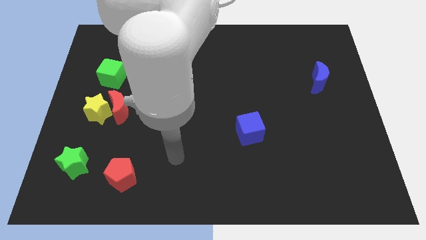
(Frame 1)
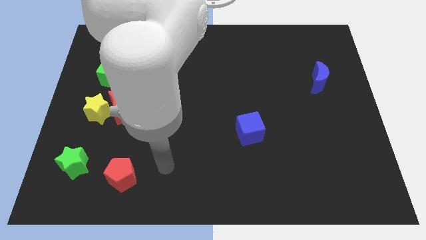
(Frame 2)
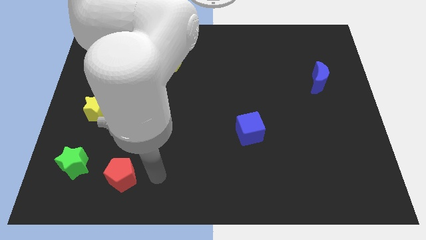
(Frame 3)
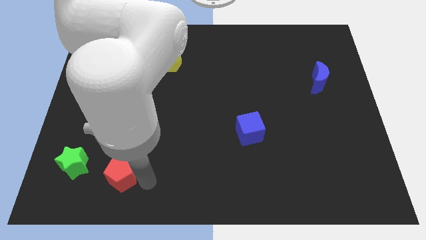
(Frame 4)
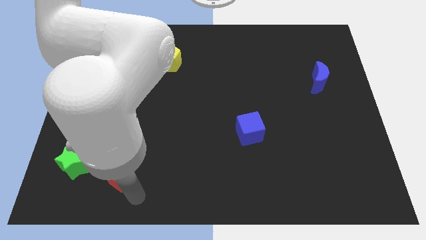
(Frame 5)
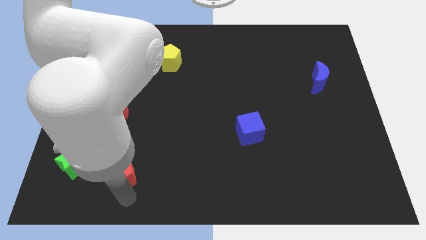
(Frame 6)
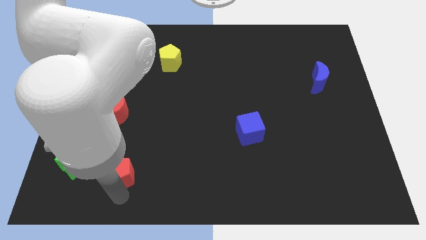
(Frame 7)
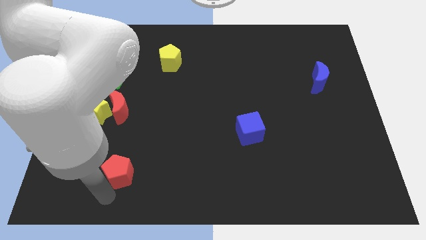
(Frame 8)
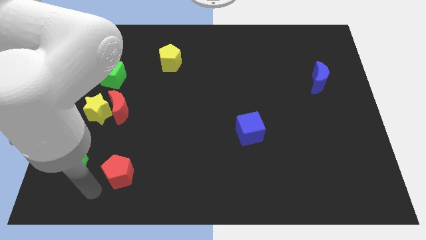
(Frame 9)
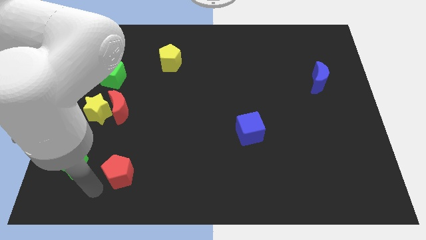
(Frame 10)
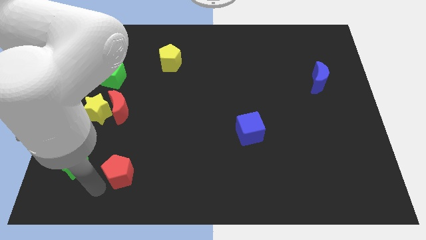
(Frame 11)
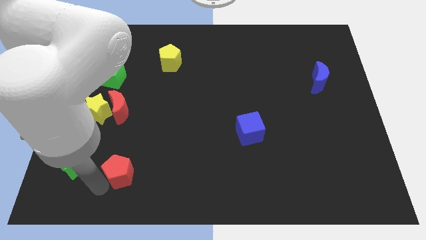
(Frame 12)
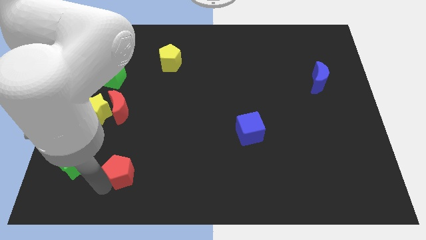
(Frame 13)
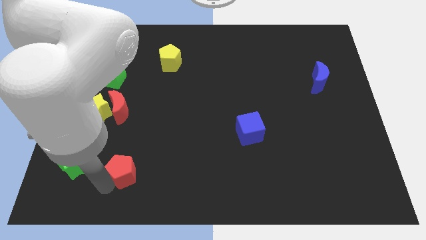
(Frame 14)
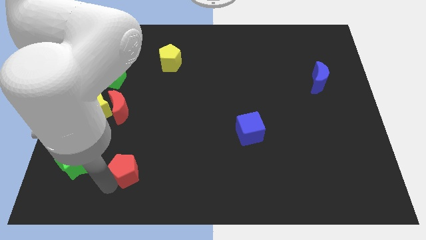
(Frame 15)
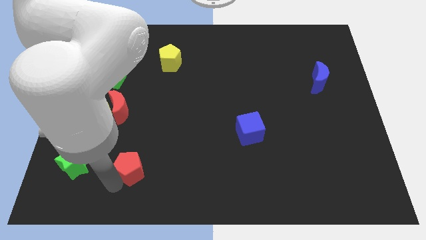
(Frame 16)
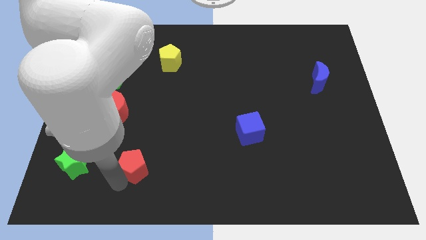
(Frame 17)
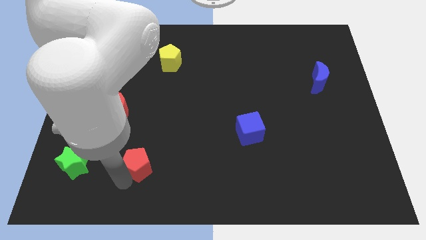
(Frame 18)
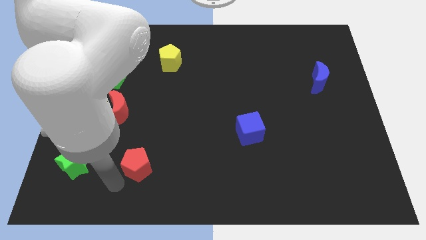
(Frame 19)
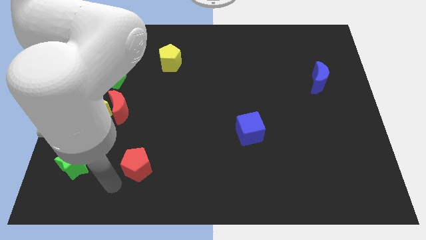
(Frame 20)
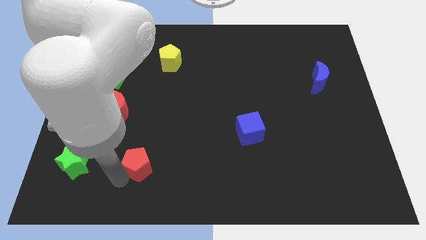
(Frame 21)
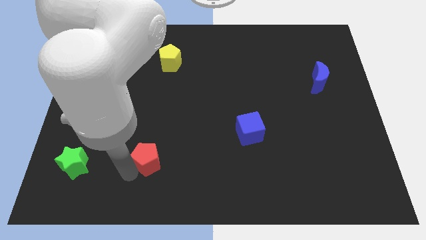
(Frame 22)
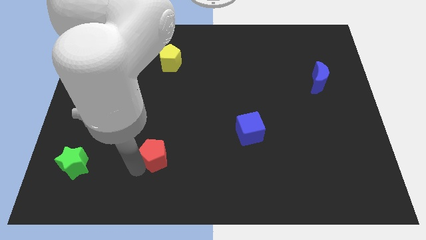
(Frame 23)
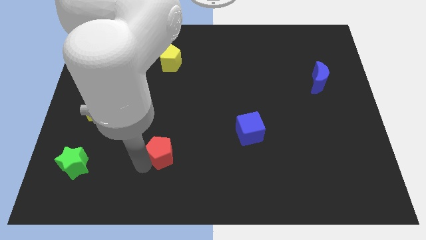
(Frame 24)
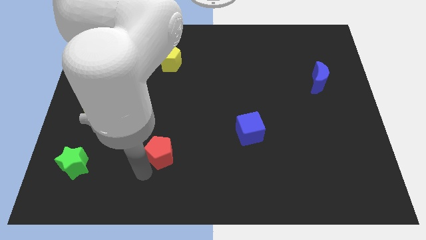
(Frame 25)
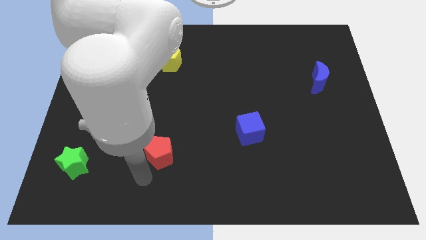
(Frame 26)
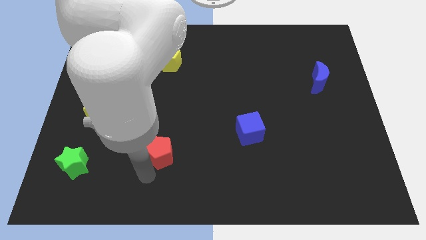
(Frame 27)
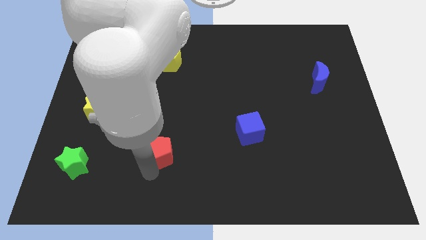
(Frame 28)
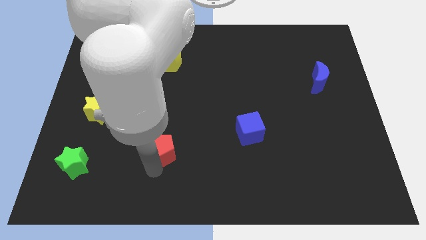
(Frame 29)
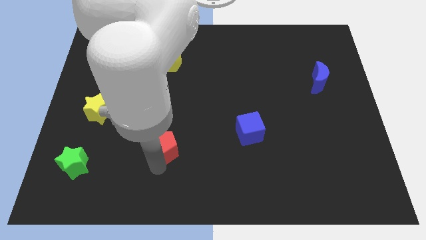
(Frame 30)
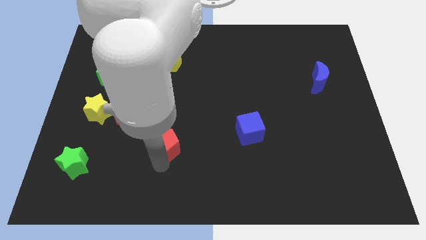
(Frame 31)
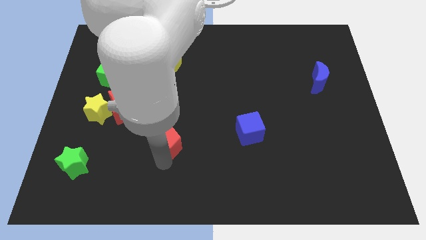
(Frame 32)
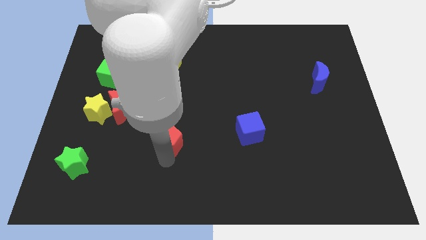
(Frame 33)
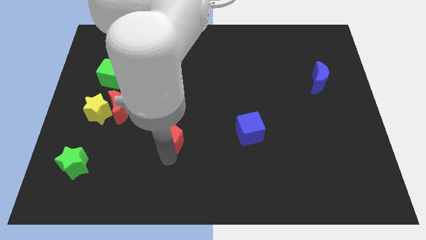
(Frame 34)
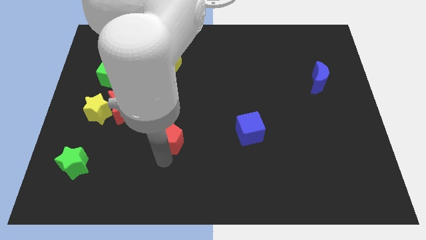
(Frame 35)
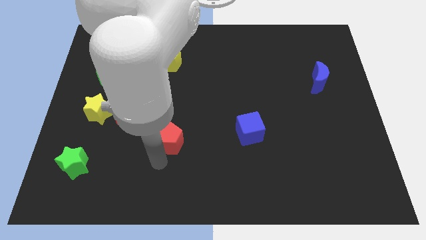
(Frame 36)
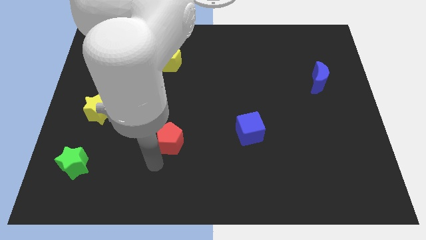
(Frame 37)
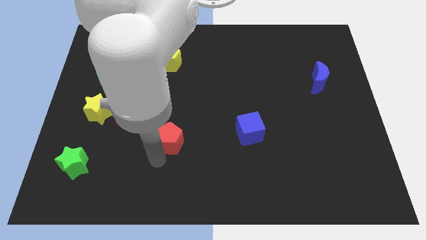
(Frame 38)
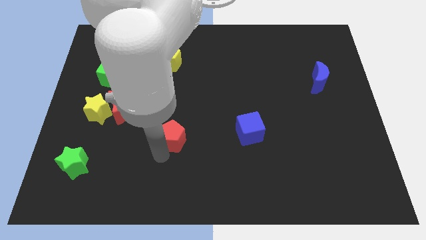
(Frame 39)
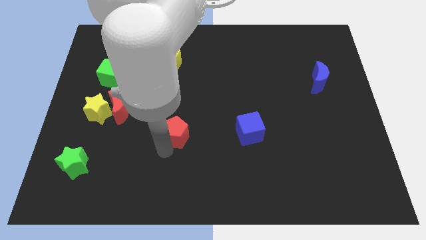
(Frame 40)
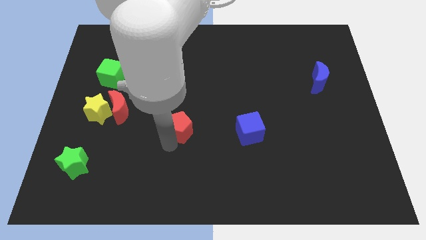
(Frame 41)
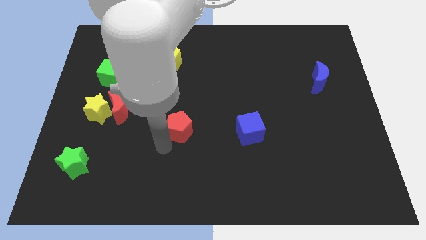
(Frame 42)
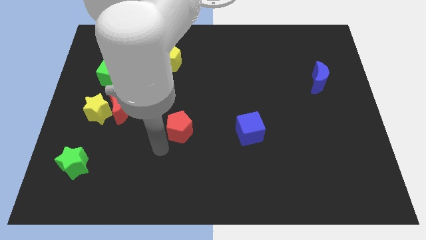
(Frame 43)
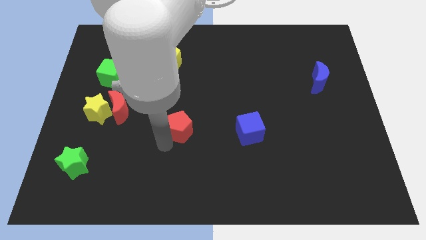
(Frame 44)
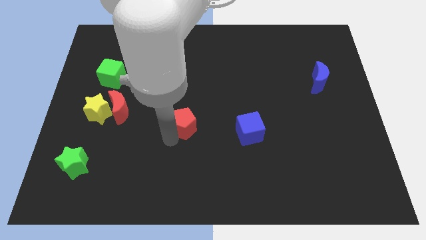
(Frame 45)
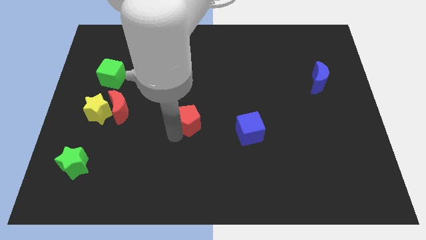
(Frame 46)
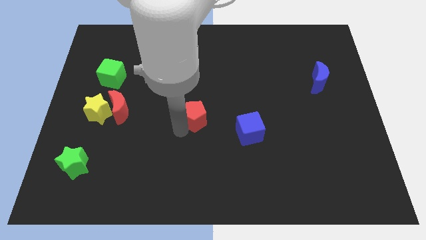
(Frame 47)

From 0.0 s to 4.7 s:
slide the red pentagon upwards and right diagonally

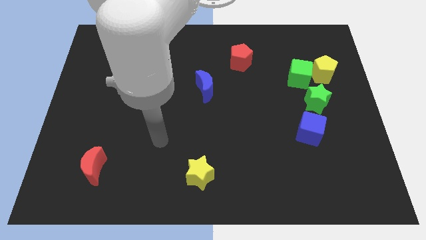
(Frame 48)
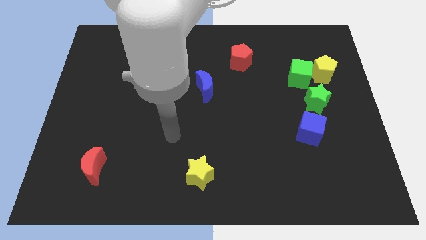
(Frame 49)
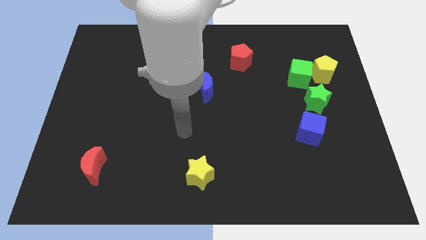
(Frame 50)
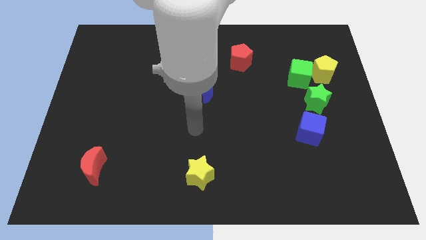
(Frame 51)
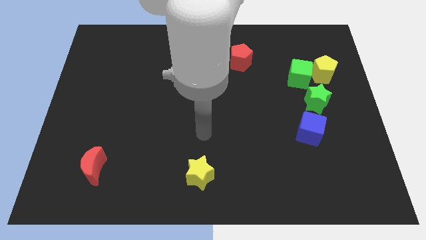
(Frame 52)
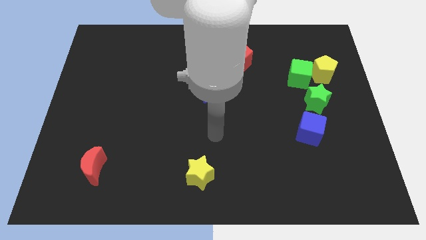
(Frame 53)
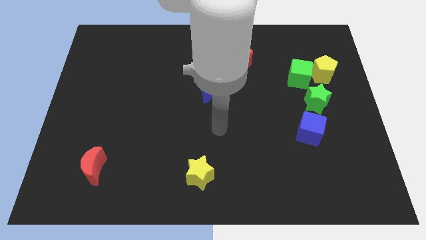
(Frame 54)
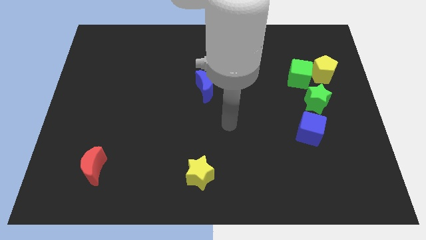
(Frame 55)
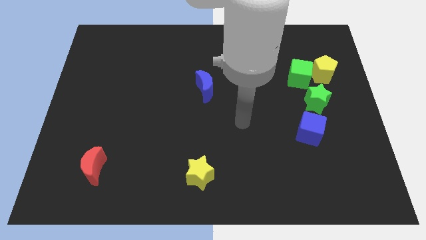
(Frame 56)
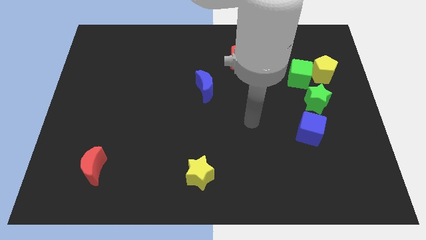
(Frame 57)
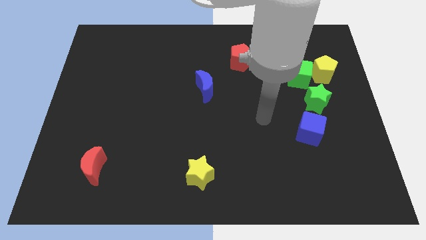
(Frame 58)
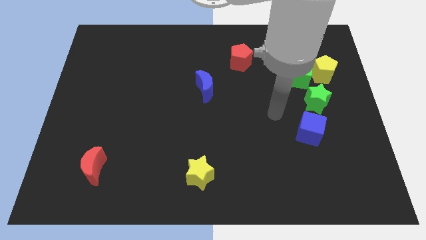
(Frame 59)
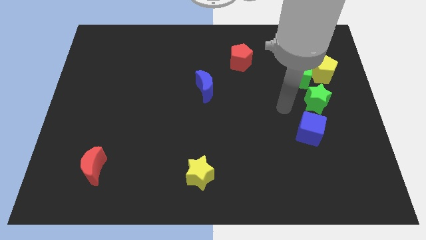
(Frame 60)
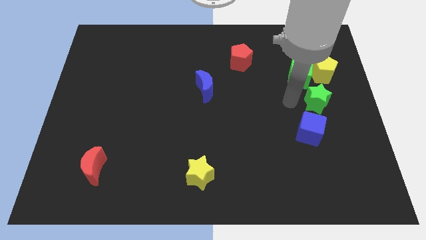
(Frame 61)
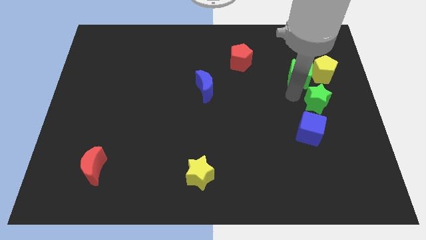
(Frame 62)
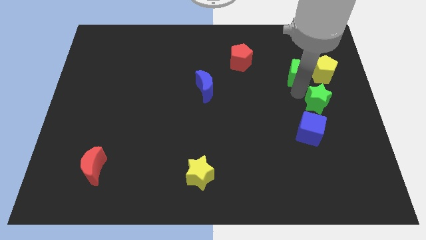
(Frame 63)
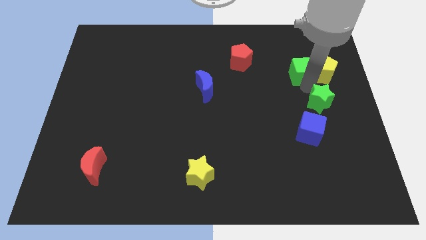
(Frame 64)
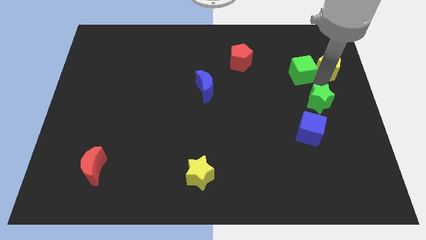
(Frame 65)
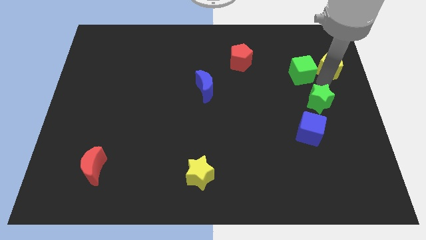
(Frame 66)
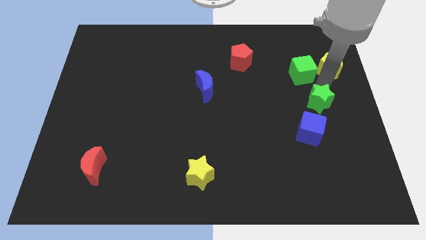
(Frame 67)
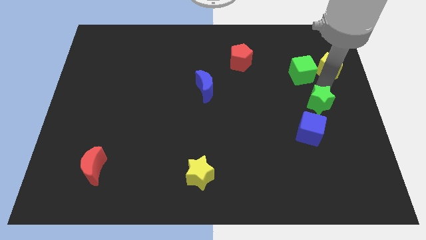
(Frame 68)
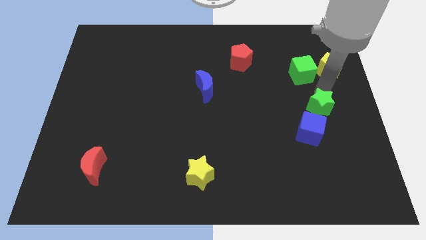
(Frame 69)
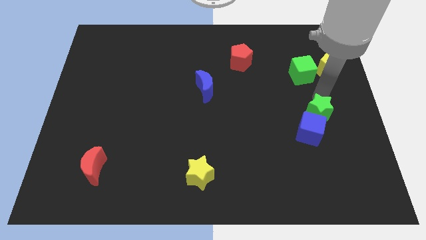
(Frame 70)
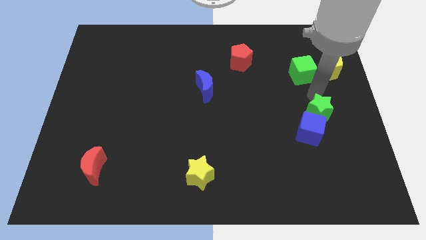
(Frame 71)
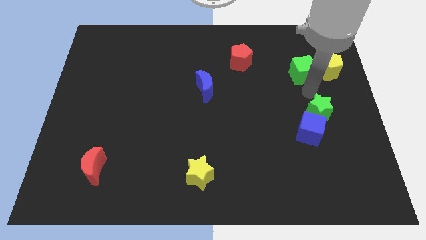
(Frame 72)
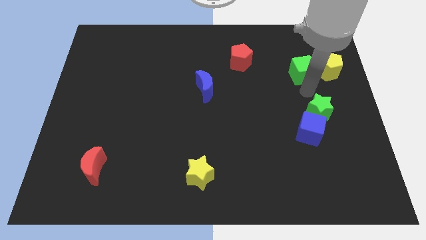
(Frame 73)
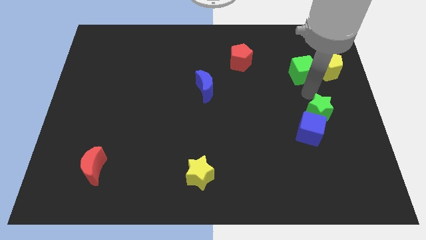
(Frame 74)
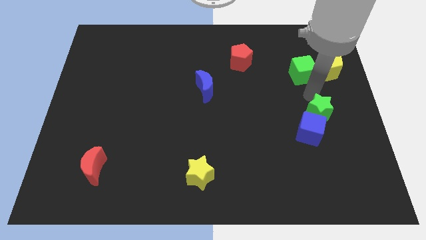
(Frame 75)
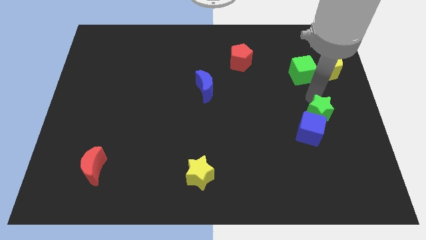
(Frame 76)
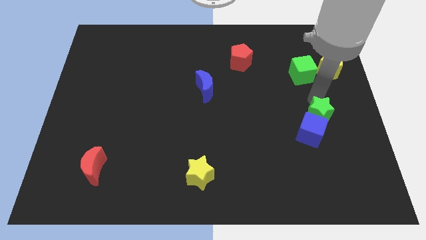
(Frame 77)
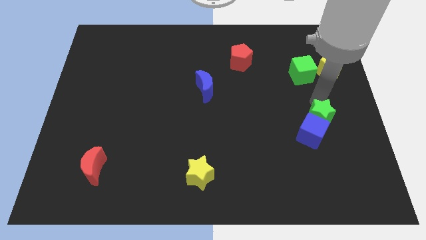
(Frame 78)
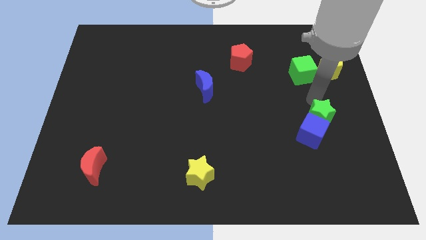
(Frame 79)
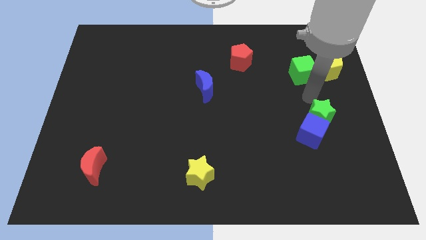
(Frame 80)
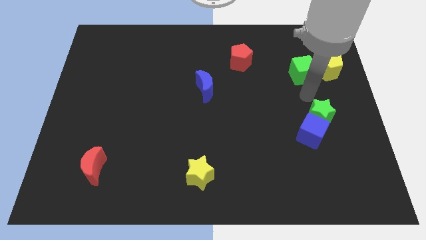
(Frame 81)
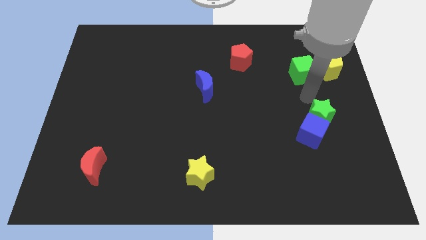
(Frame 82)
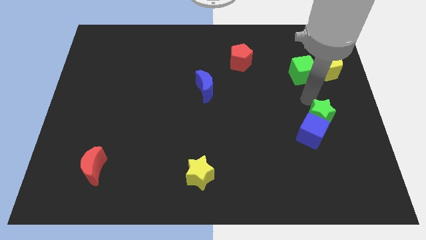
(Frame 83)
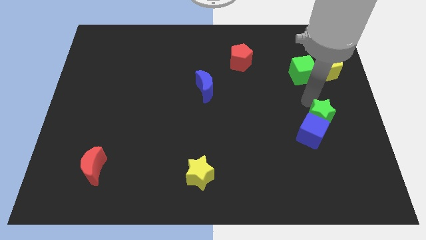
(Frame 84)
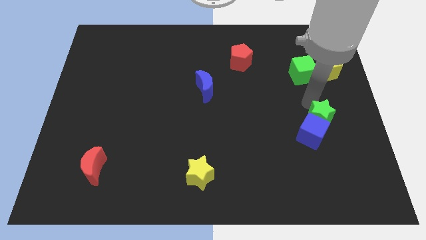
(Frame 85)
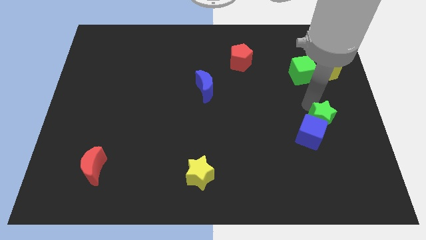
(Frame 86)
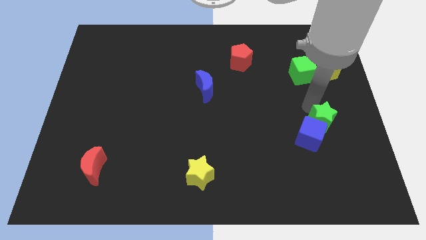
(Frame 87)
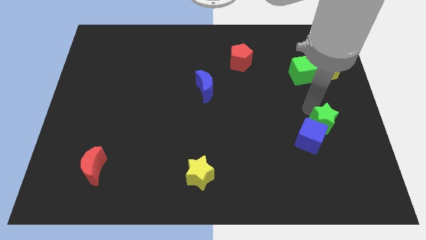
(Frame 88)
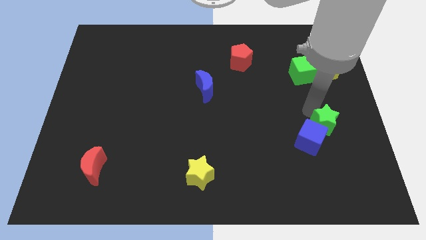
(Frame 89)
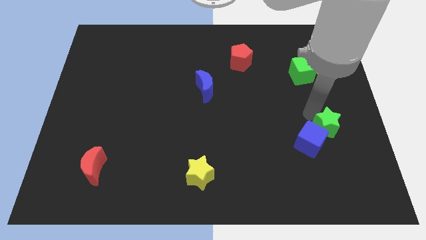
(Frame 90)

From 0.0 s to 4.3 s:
slide the green star a little down
